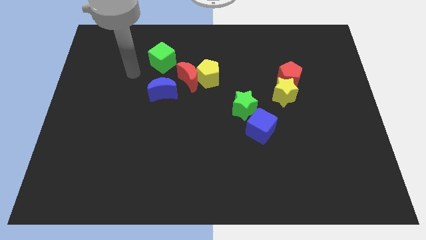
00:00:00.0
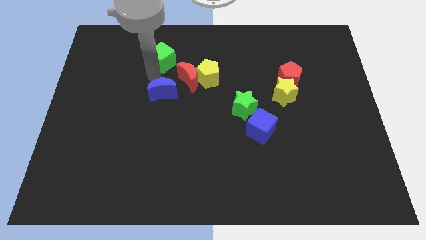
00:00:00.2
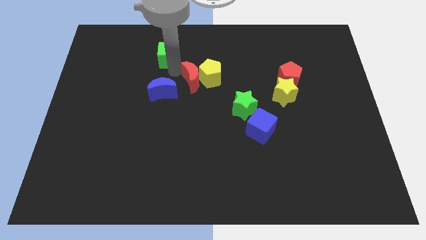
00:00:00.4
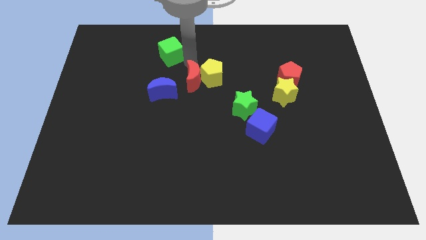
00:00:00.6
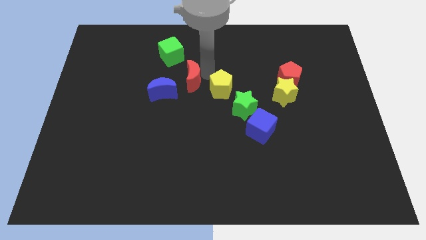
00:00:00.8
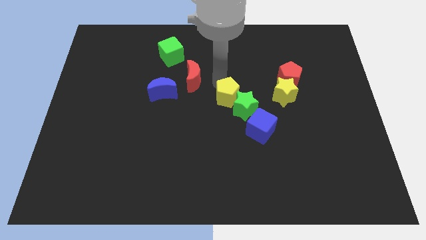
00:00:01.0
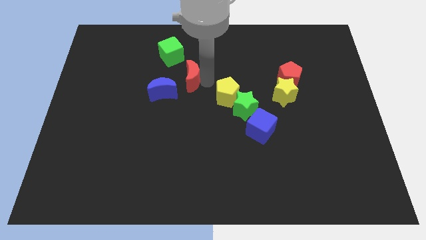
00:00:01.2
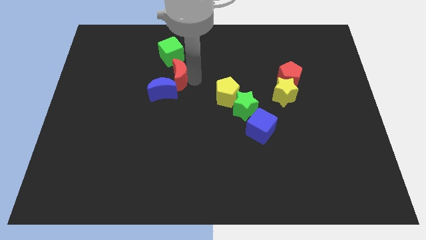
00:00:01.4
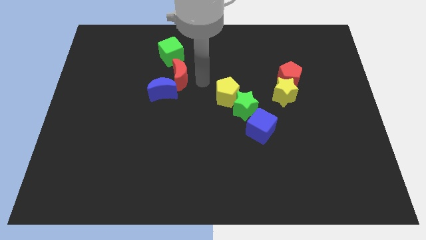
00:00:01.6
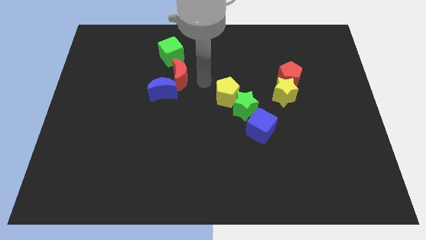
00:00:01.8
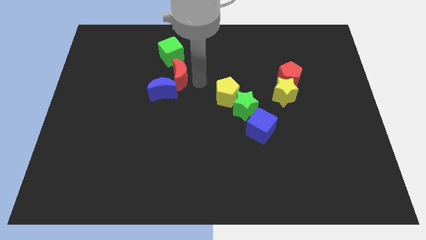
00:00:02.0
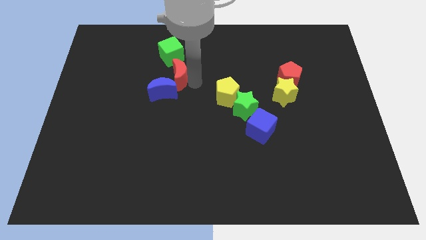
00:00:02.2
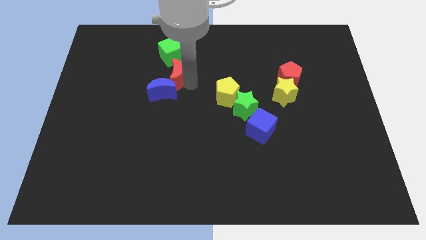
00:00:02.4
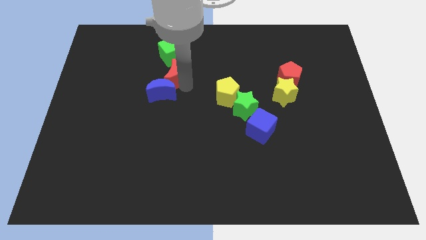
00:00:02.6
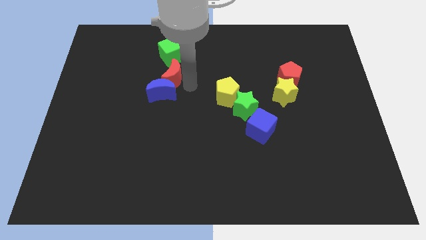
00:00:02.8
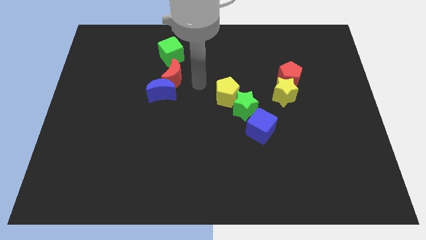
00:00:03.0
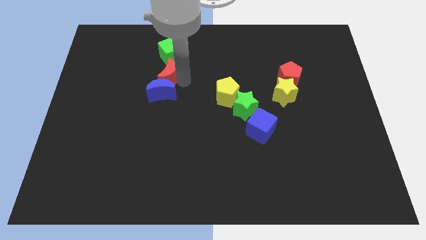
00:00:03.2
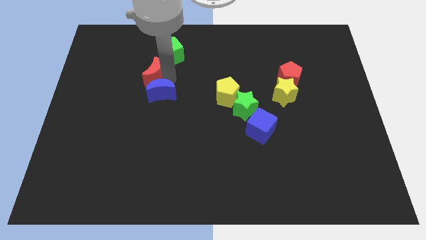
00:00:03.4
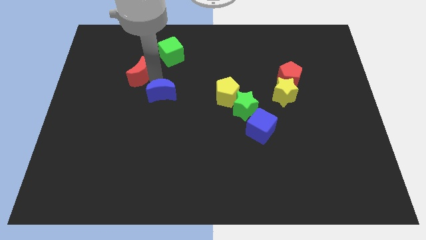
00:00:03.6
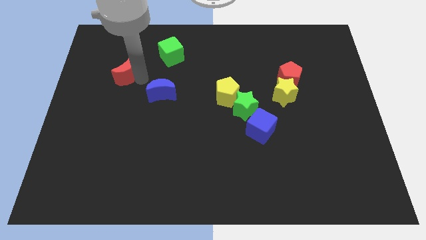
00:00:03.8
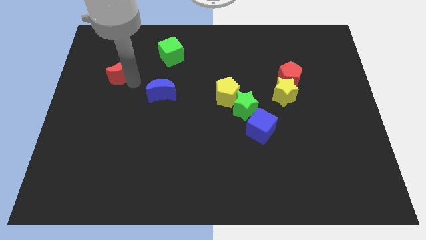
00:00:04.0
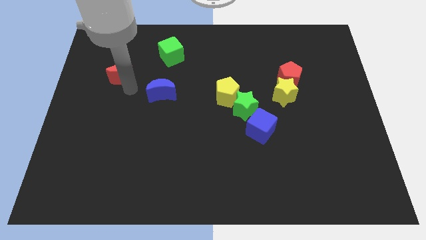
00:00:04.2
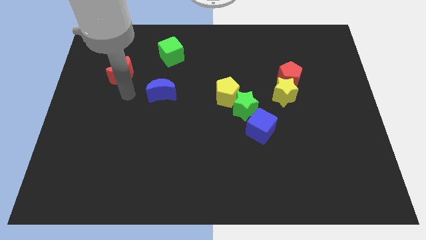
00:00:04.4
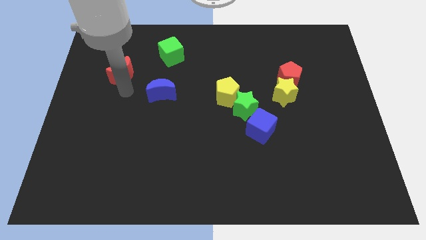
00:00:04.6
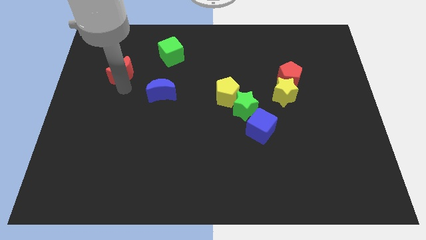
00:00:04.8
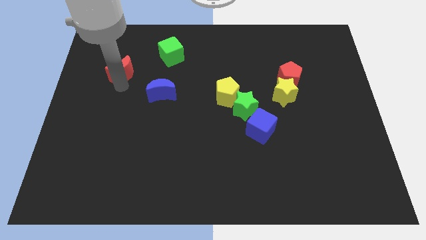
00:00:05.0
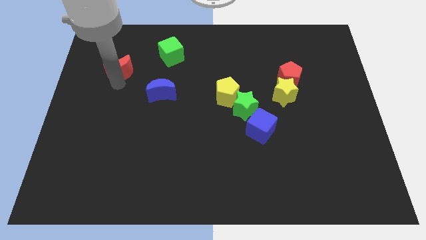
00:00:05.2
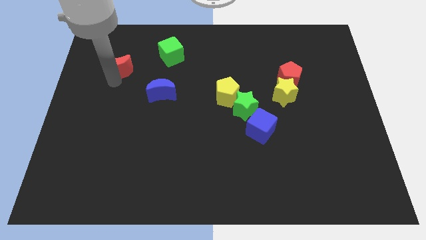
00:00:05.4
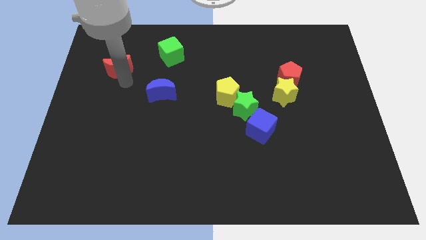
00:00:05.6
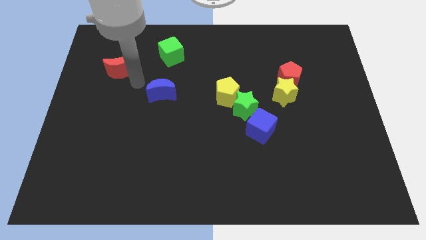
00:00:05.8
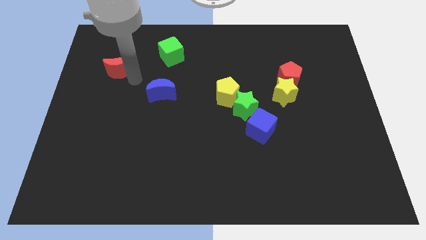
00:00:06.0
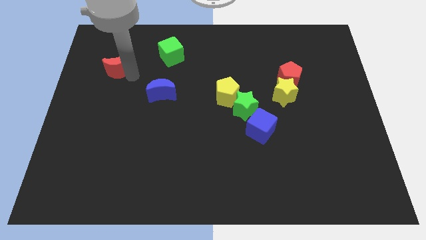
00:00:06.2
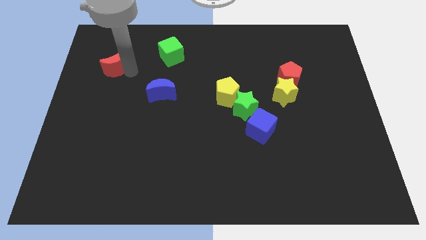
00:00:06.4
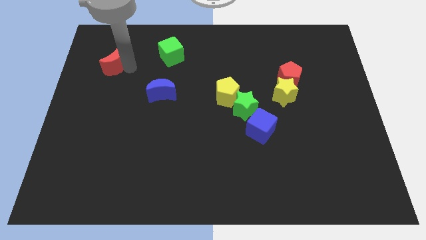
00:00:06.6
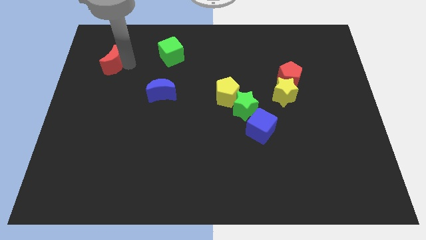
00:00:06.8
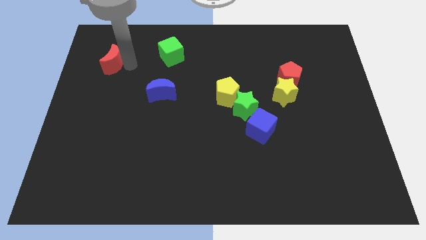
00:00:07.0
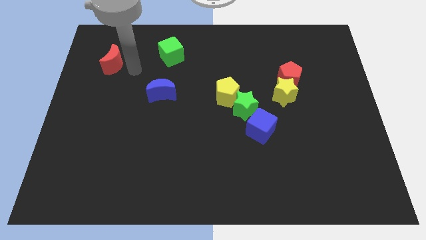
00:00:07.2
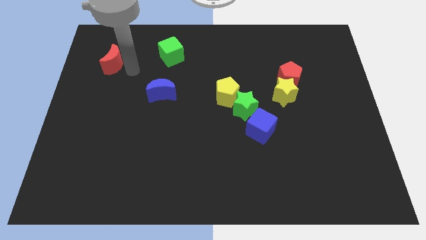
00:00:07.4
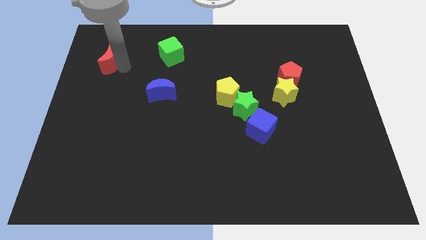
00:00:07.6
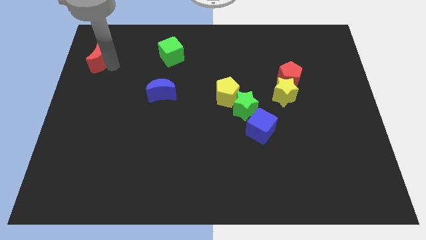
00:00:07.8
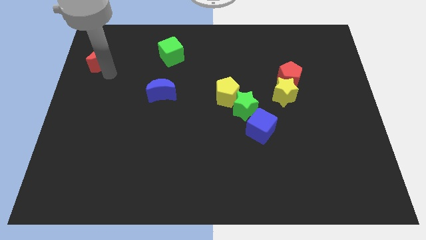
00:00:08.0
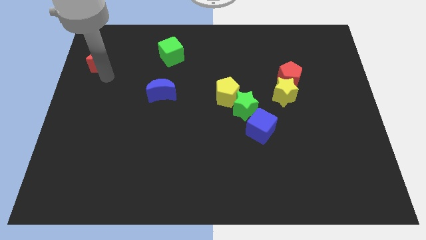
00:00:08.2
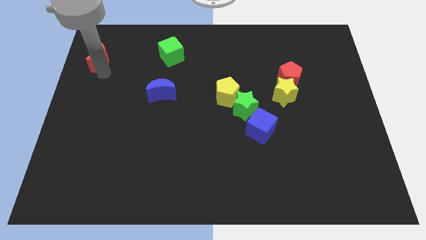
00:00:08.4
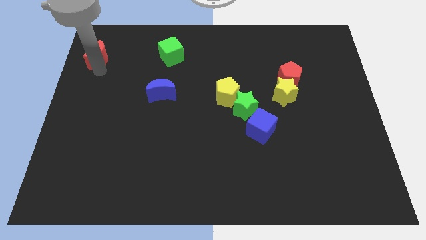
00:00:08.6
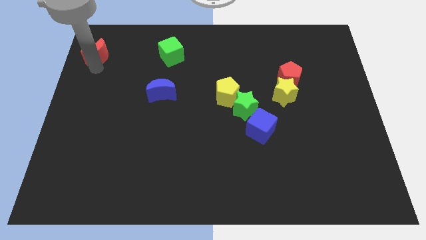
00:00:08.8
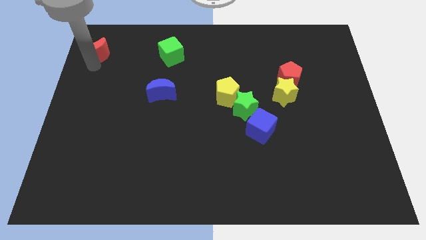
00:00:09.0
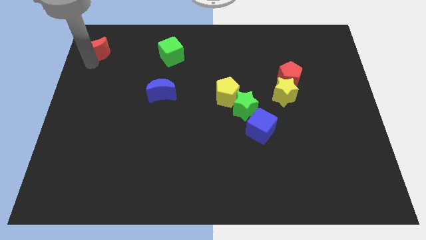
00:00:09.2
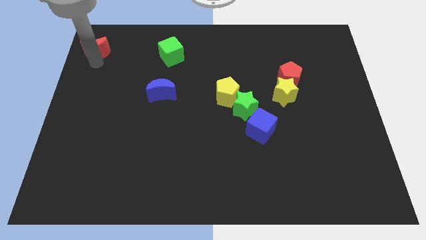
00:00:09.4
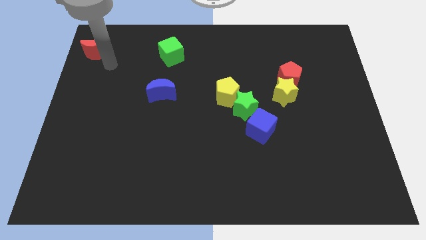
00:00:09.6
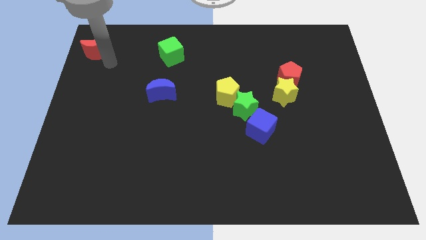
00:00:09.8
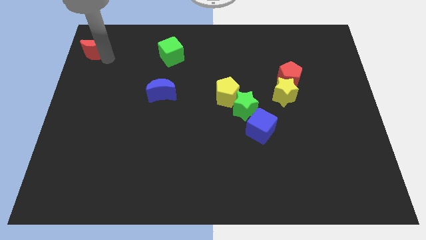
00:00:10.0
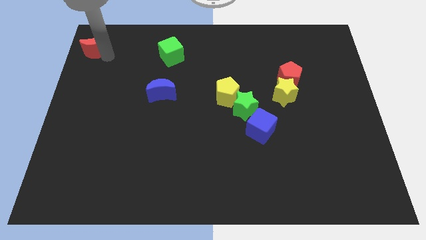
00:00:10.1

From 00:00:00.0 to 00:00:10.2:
slide the red moon to the top left corner

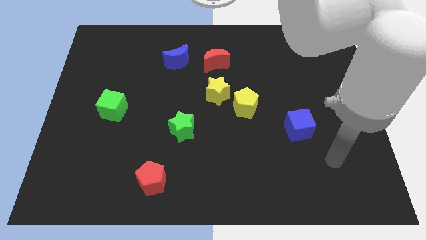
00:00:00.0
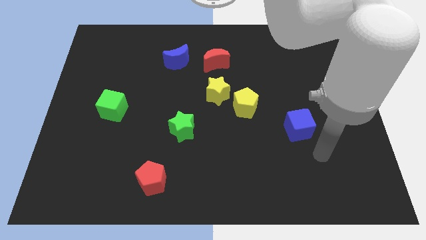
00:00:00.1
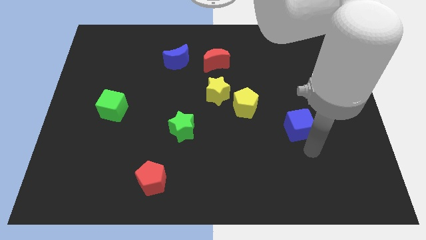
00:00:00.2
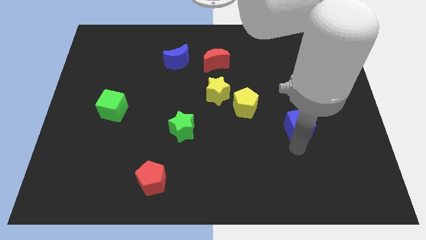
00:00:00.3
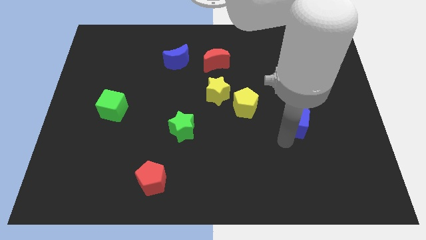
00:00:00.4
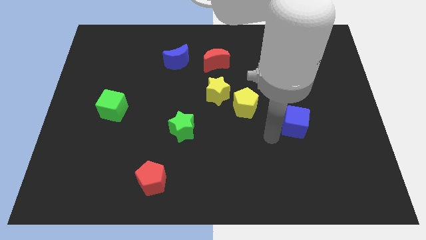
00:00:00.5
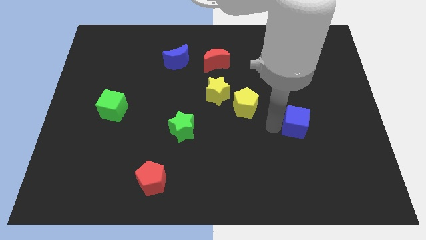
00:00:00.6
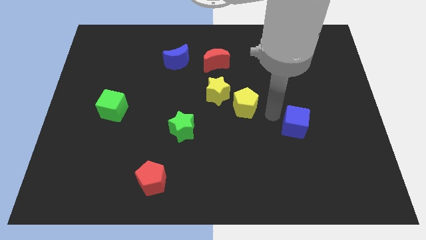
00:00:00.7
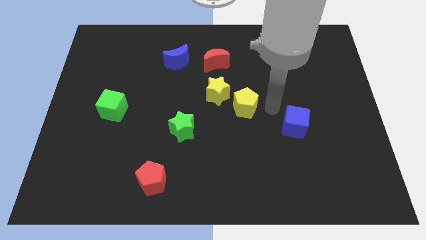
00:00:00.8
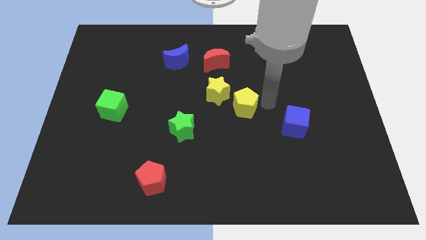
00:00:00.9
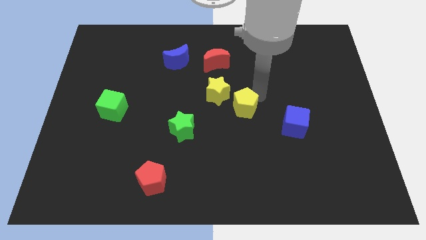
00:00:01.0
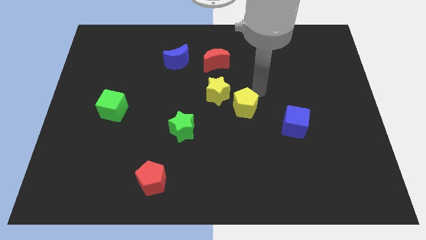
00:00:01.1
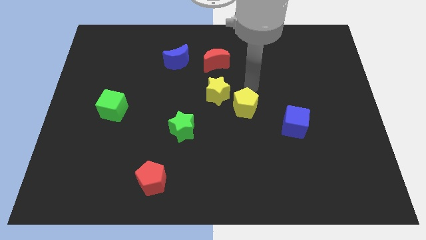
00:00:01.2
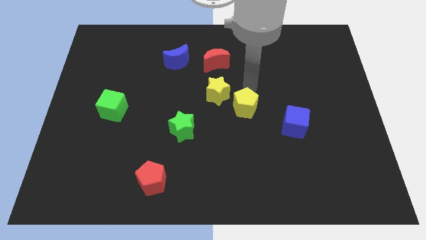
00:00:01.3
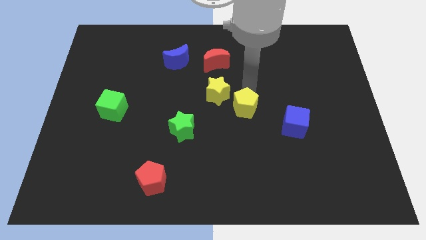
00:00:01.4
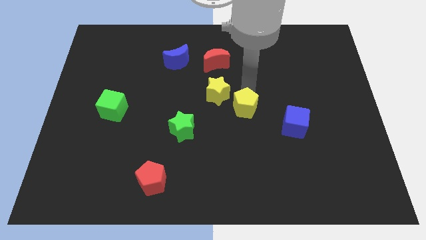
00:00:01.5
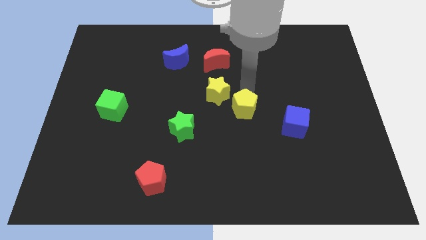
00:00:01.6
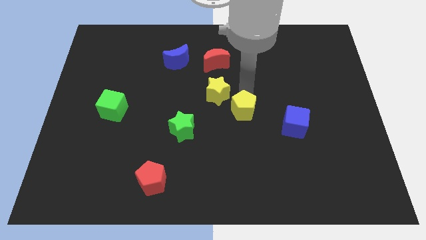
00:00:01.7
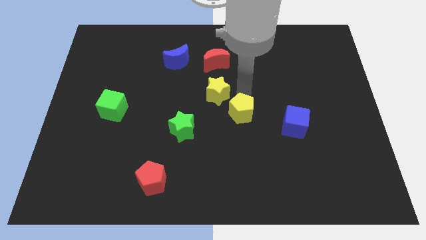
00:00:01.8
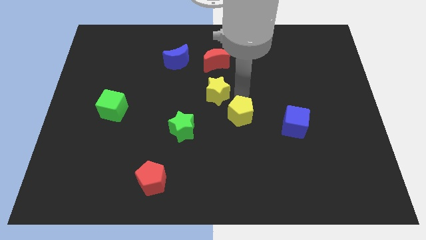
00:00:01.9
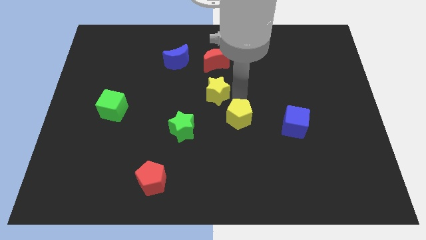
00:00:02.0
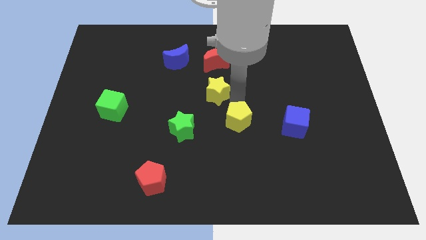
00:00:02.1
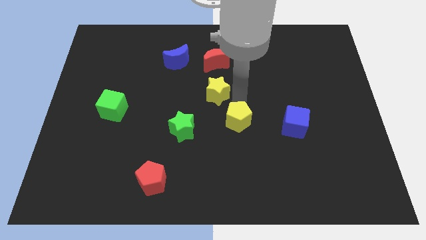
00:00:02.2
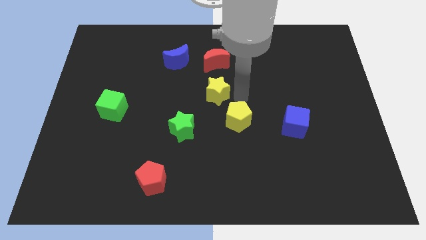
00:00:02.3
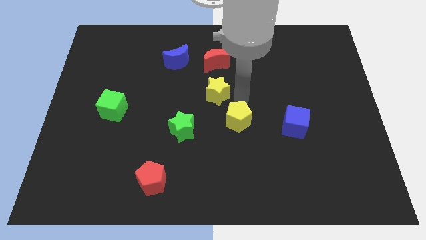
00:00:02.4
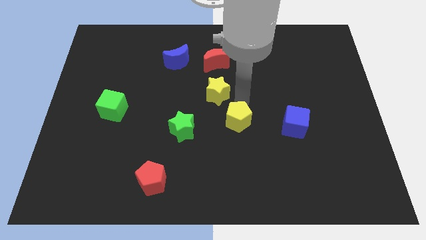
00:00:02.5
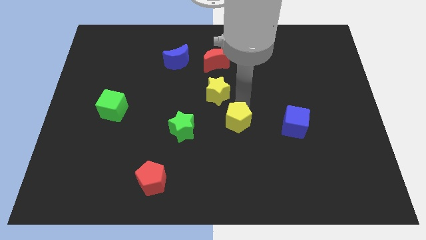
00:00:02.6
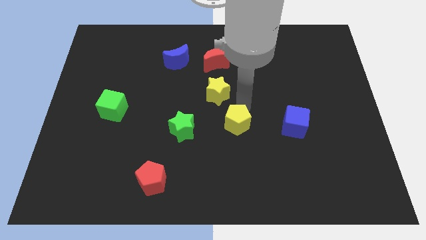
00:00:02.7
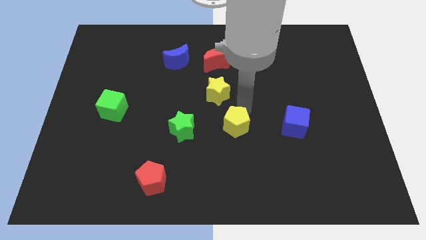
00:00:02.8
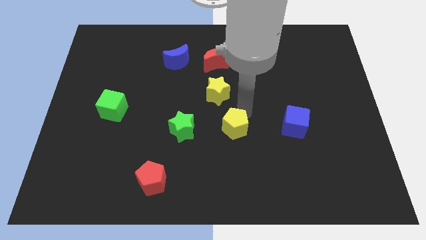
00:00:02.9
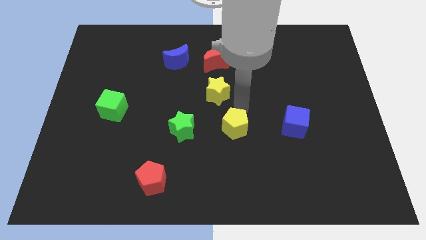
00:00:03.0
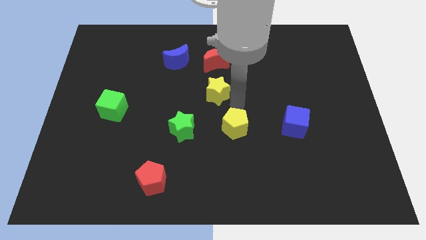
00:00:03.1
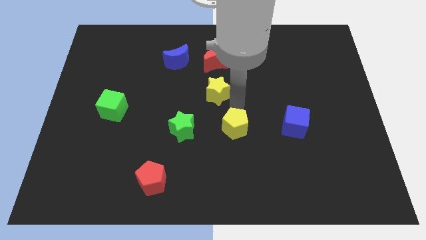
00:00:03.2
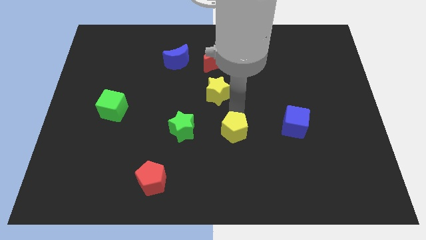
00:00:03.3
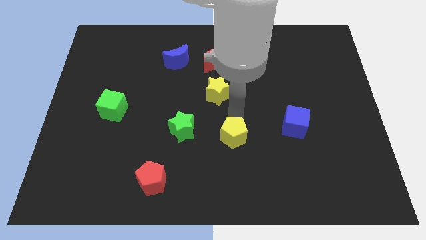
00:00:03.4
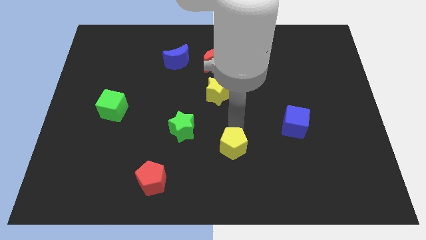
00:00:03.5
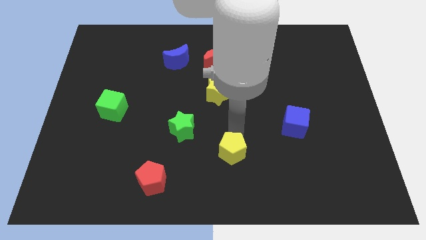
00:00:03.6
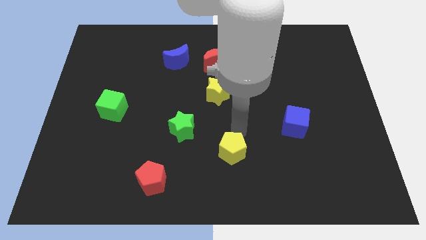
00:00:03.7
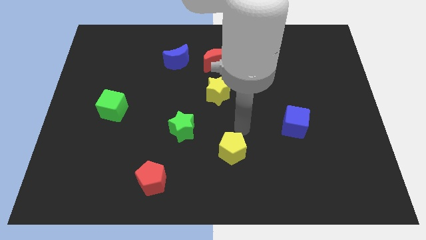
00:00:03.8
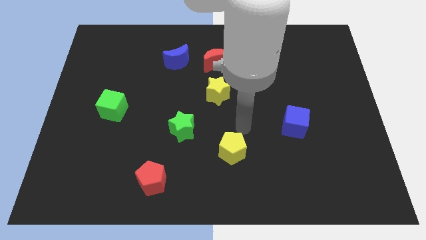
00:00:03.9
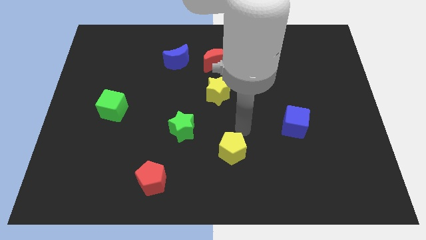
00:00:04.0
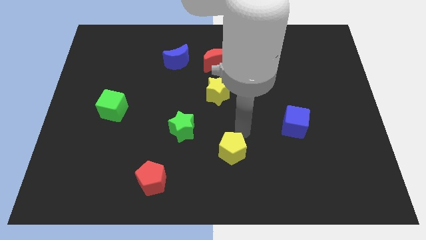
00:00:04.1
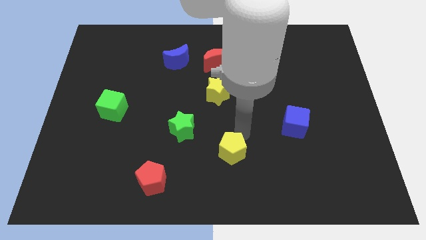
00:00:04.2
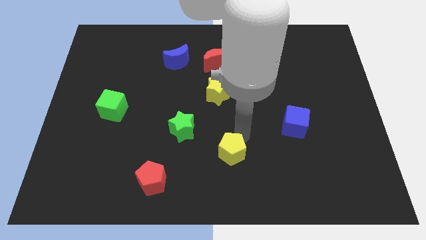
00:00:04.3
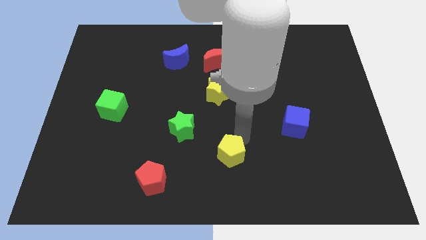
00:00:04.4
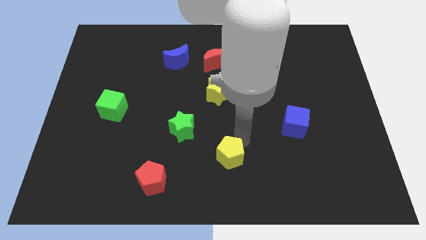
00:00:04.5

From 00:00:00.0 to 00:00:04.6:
slide the yellow pentagon to the bottom side
